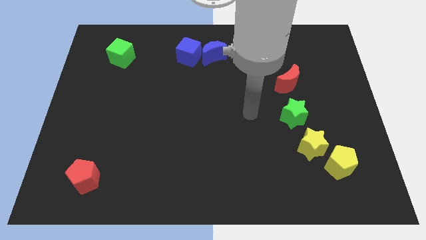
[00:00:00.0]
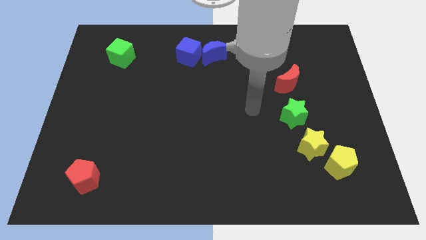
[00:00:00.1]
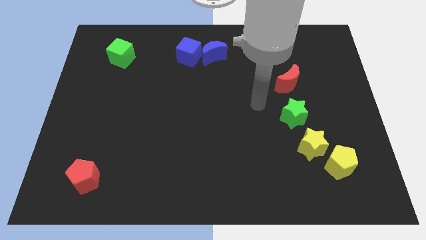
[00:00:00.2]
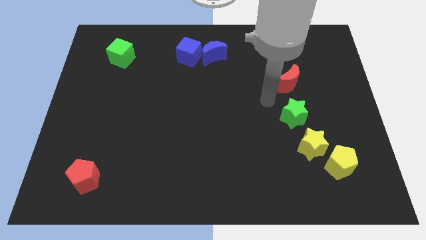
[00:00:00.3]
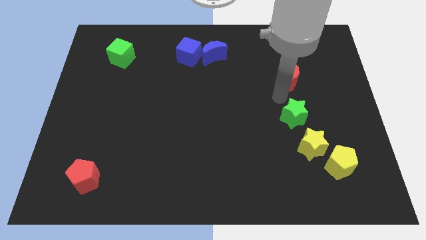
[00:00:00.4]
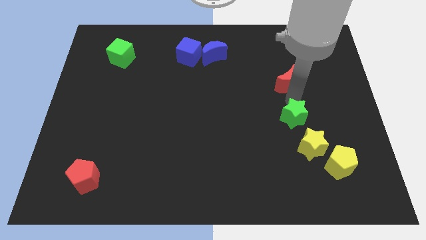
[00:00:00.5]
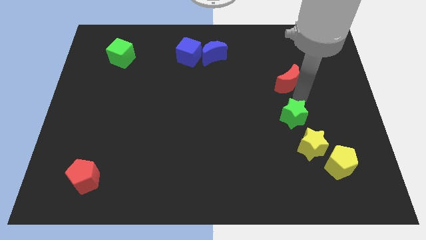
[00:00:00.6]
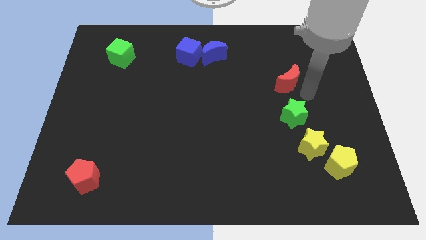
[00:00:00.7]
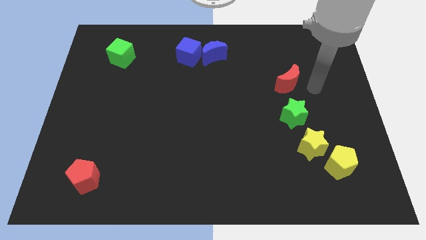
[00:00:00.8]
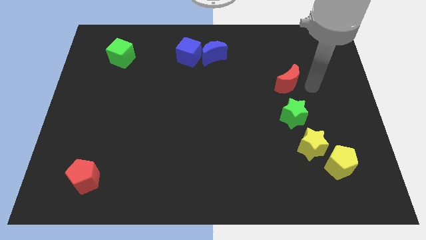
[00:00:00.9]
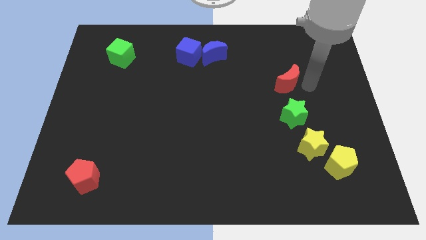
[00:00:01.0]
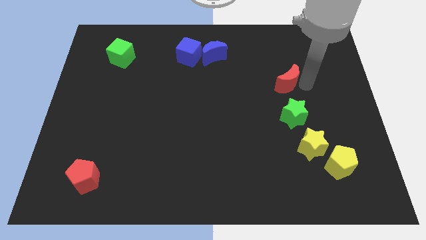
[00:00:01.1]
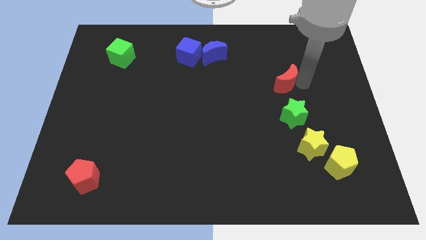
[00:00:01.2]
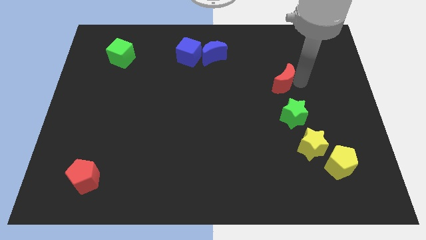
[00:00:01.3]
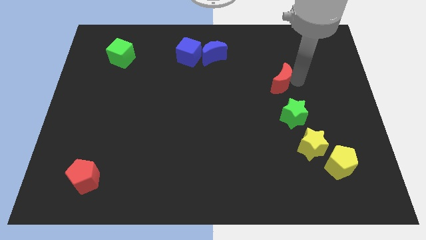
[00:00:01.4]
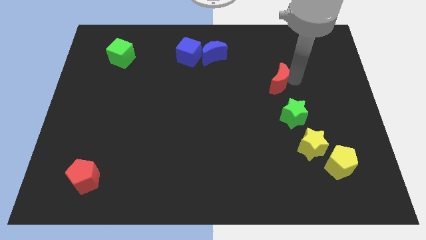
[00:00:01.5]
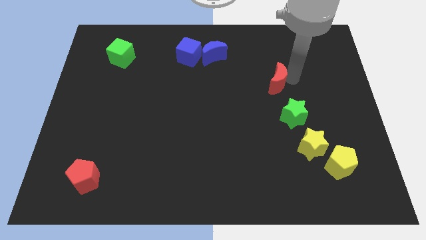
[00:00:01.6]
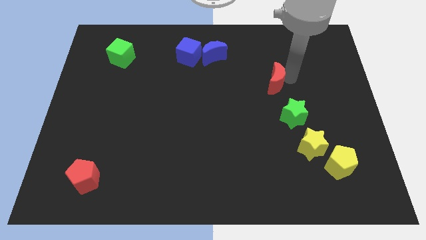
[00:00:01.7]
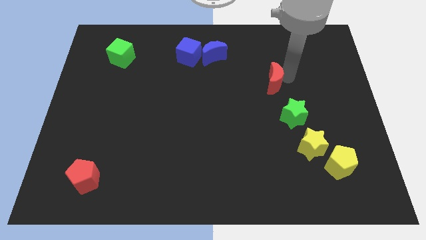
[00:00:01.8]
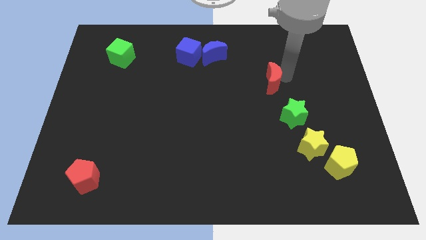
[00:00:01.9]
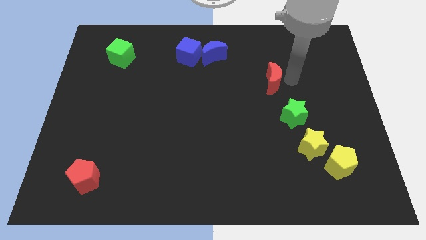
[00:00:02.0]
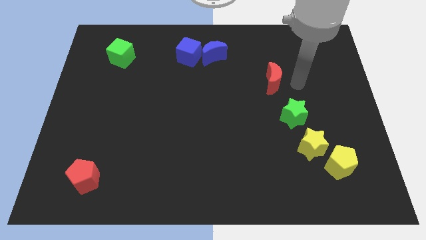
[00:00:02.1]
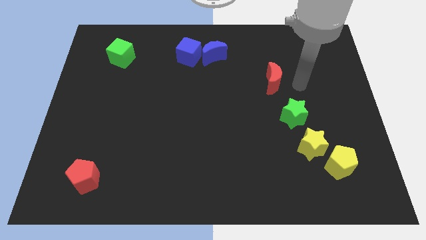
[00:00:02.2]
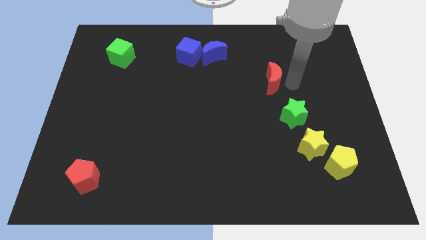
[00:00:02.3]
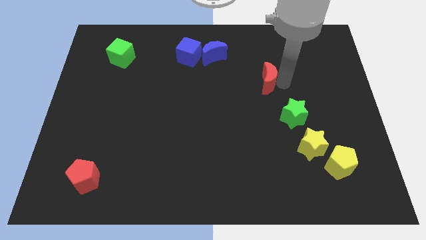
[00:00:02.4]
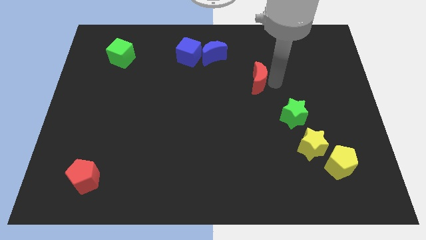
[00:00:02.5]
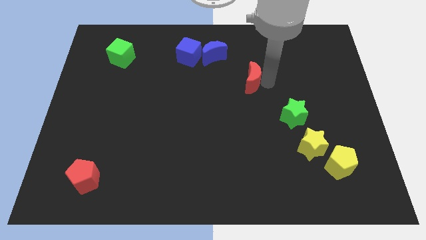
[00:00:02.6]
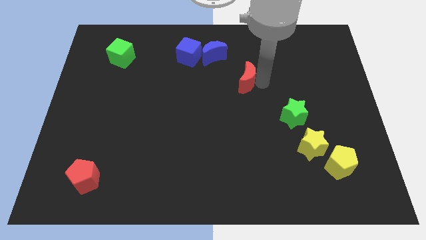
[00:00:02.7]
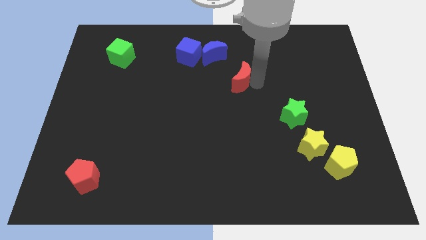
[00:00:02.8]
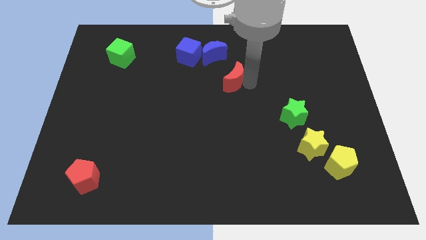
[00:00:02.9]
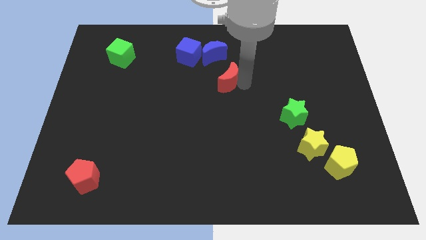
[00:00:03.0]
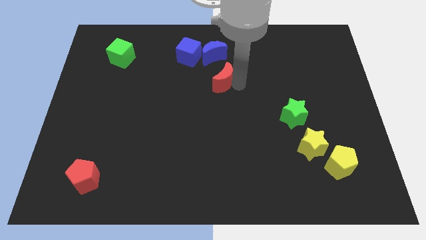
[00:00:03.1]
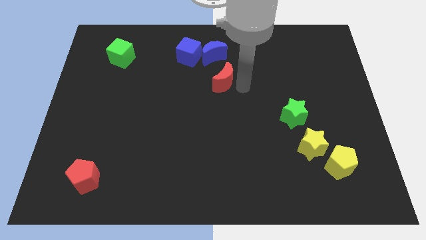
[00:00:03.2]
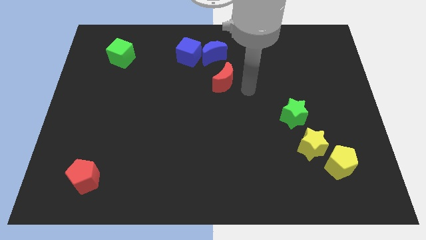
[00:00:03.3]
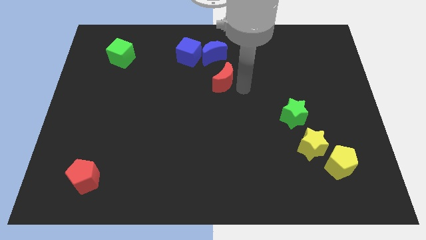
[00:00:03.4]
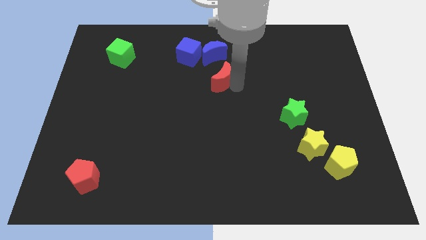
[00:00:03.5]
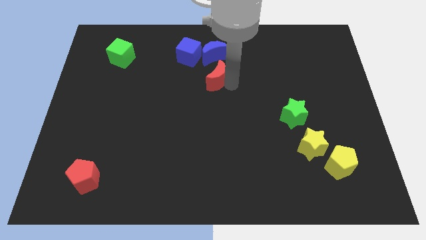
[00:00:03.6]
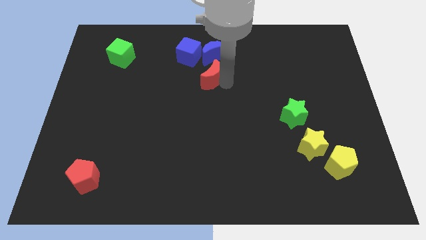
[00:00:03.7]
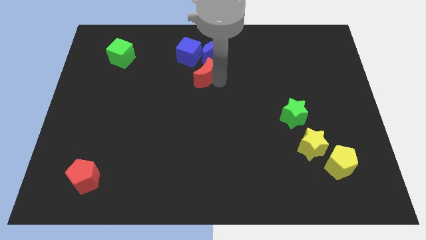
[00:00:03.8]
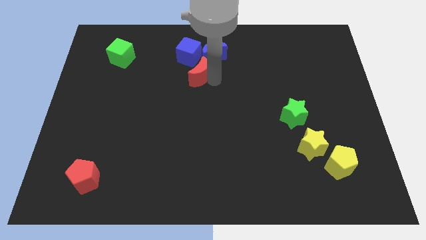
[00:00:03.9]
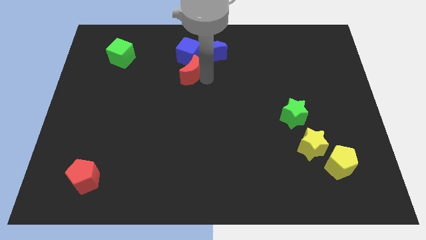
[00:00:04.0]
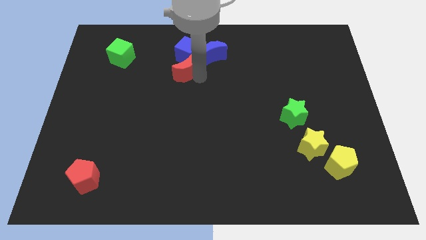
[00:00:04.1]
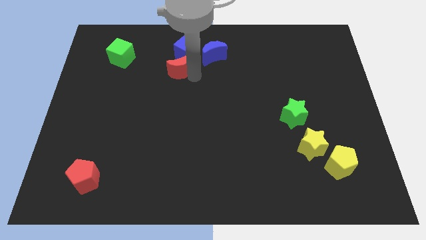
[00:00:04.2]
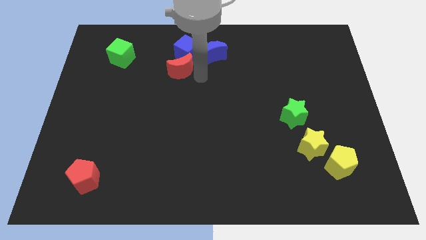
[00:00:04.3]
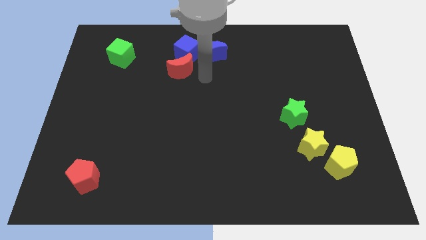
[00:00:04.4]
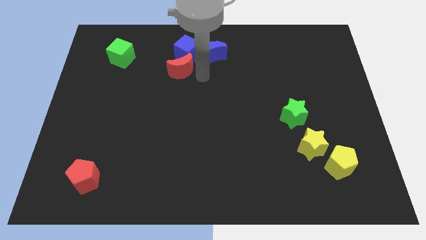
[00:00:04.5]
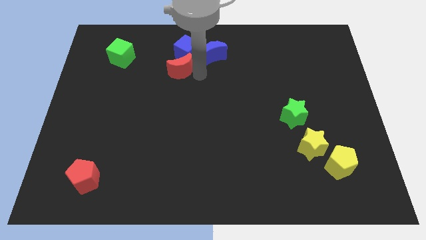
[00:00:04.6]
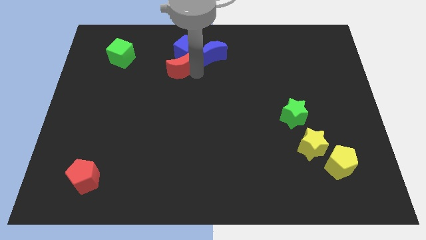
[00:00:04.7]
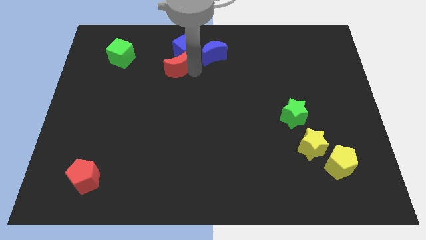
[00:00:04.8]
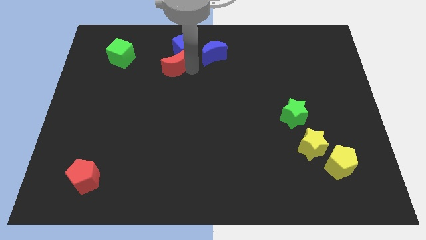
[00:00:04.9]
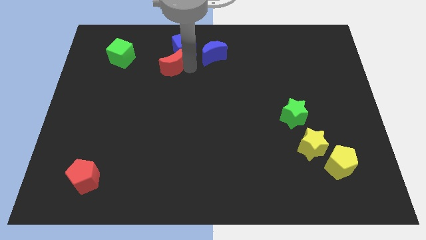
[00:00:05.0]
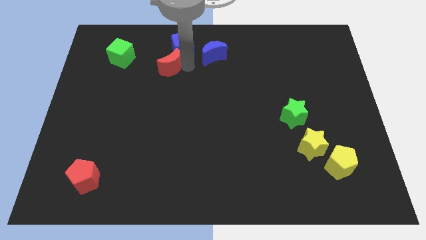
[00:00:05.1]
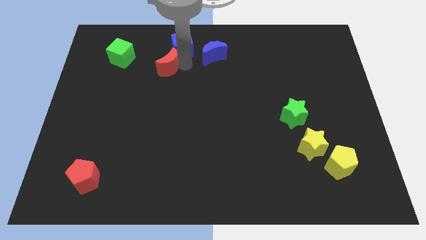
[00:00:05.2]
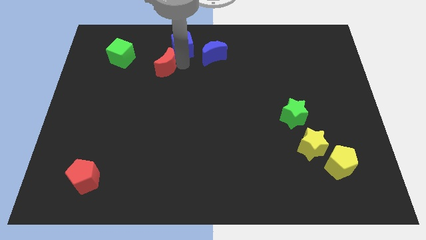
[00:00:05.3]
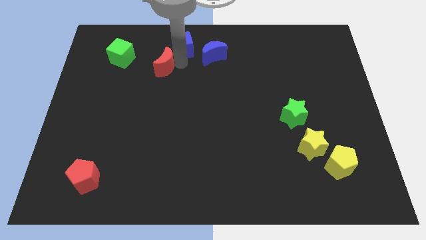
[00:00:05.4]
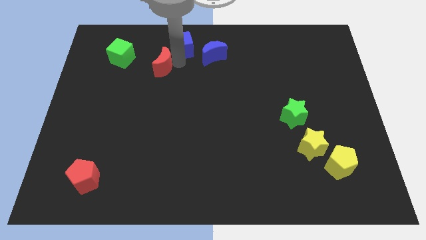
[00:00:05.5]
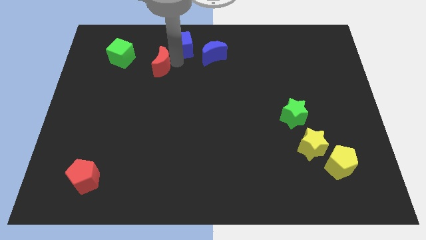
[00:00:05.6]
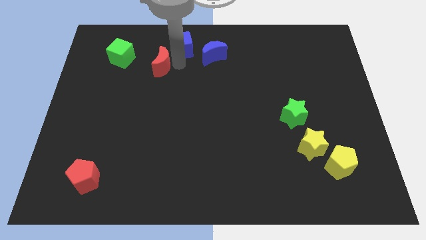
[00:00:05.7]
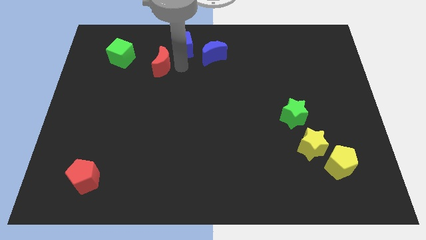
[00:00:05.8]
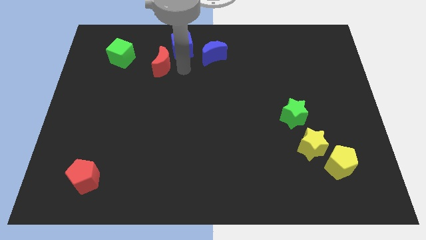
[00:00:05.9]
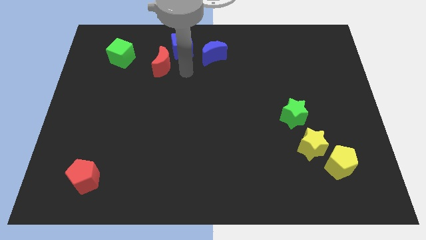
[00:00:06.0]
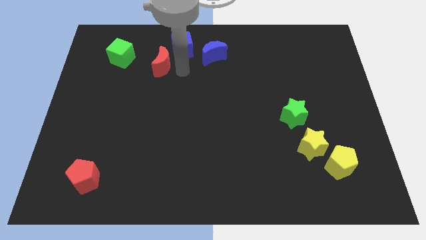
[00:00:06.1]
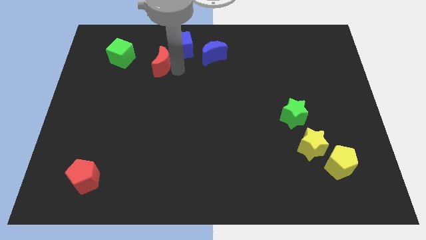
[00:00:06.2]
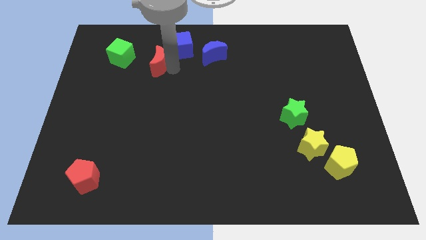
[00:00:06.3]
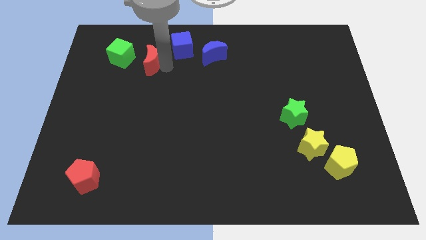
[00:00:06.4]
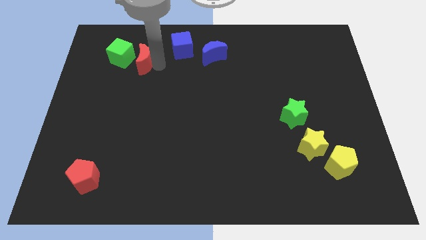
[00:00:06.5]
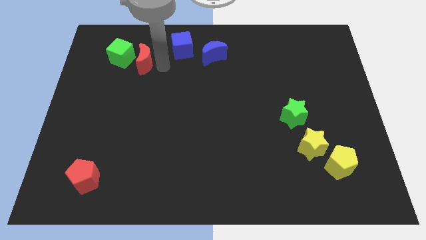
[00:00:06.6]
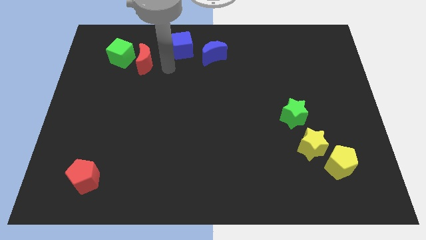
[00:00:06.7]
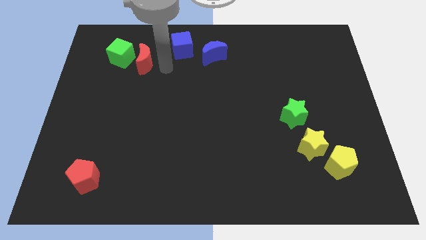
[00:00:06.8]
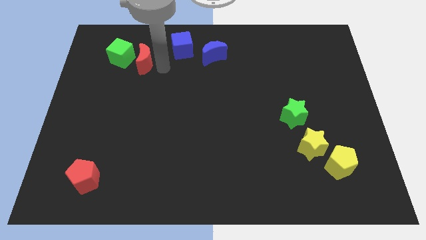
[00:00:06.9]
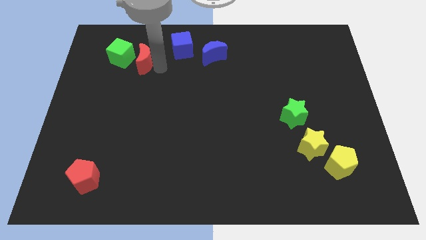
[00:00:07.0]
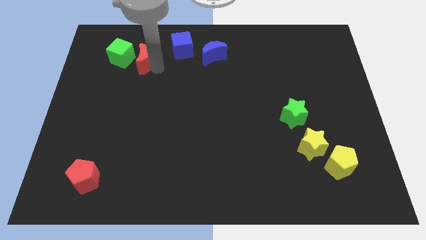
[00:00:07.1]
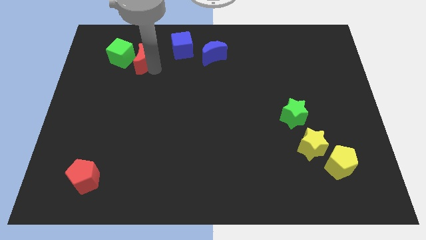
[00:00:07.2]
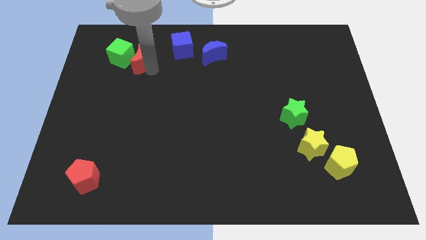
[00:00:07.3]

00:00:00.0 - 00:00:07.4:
push the red moon close to the green cube

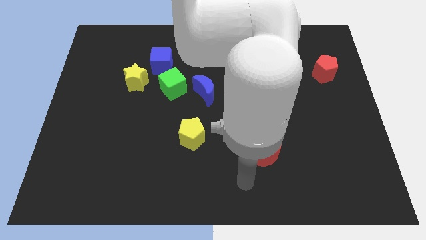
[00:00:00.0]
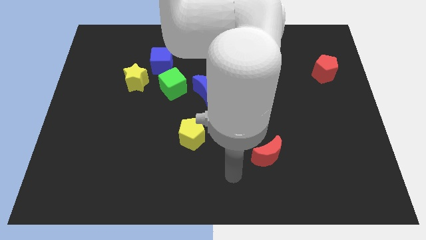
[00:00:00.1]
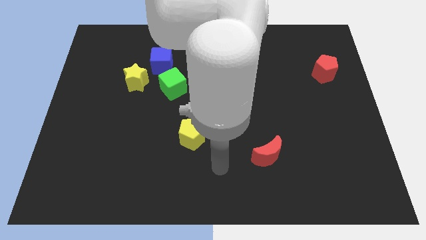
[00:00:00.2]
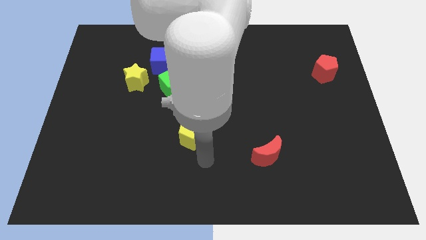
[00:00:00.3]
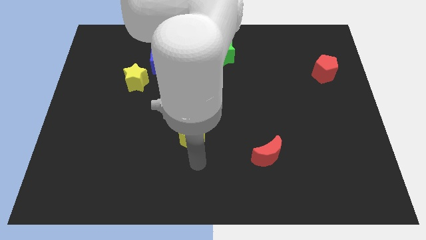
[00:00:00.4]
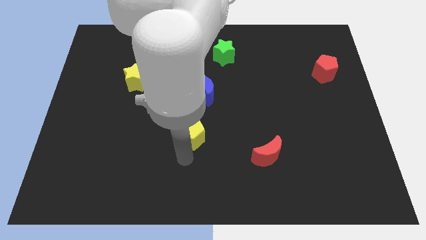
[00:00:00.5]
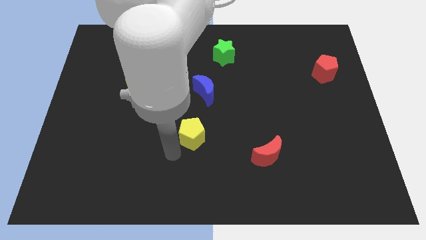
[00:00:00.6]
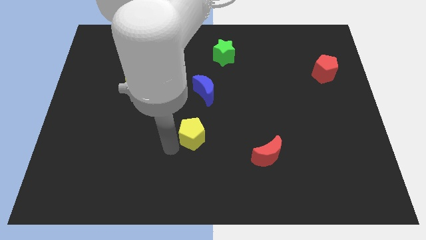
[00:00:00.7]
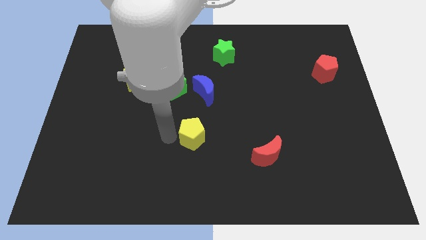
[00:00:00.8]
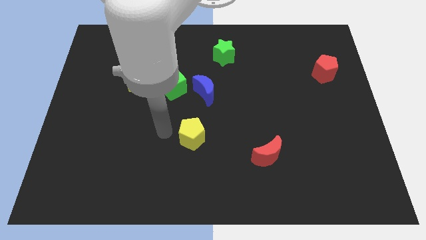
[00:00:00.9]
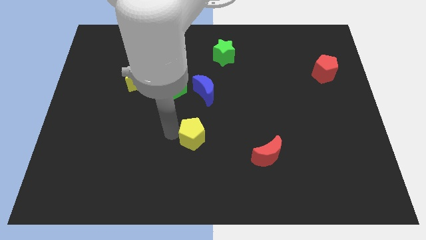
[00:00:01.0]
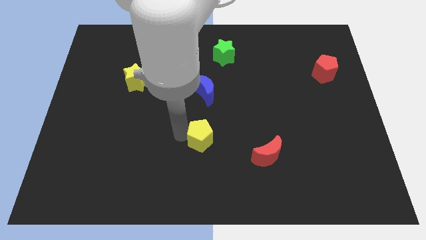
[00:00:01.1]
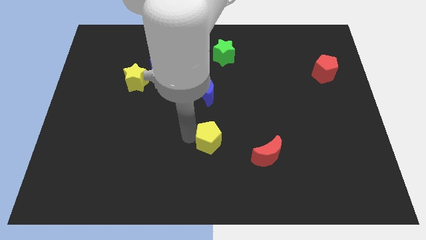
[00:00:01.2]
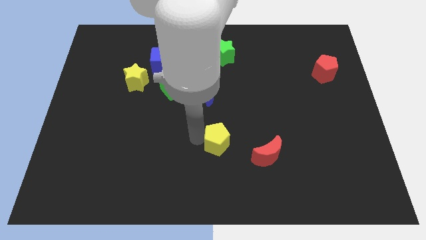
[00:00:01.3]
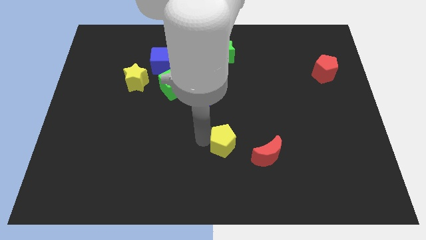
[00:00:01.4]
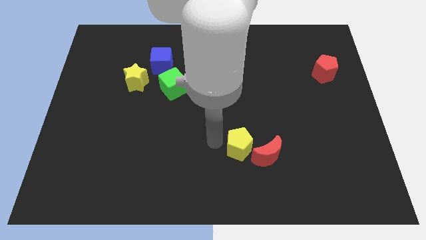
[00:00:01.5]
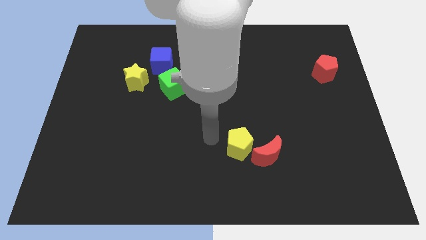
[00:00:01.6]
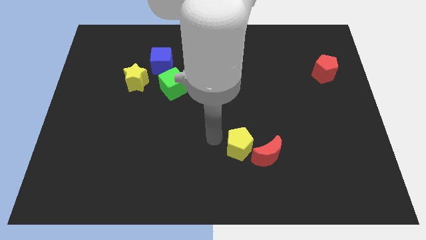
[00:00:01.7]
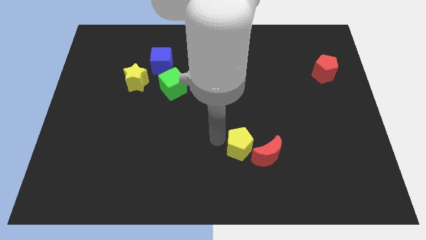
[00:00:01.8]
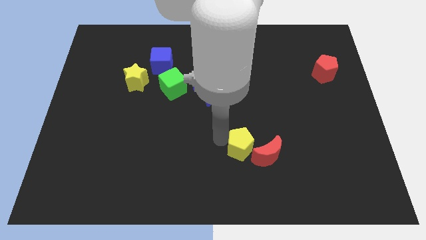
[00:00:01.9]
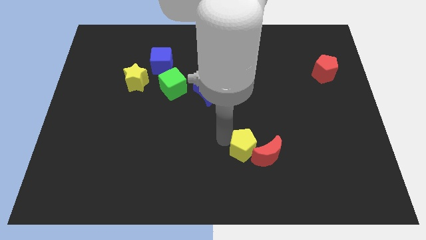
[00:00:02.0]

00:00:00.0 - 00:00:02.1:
push the yellow pentagon close to the red moon
